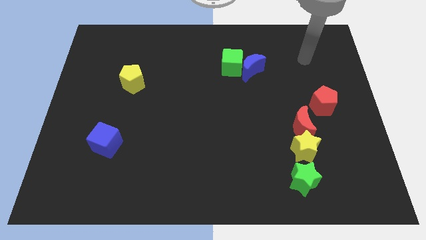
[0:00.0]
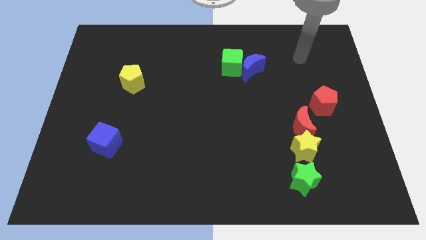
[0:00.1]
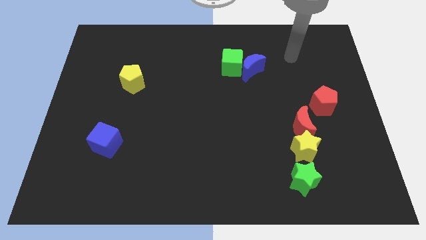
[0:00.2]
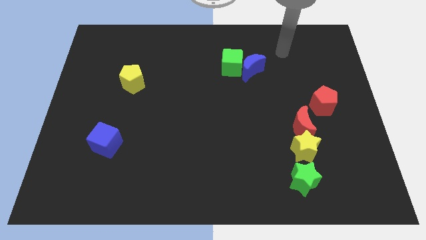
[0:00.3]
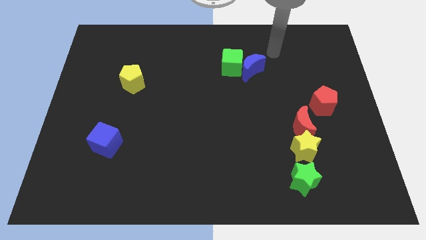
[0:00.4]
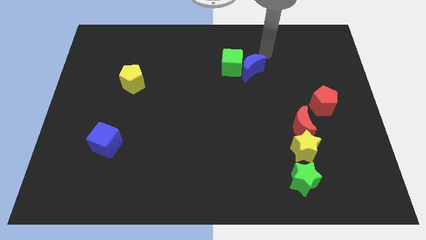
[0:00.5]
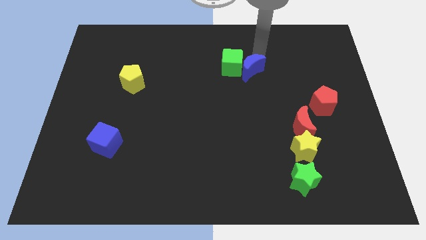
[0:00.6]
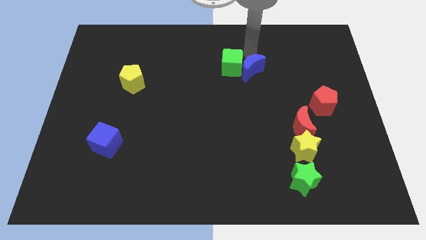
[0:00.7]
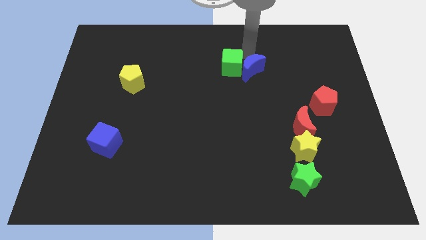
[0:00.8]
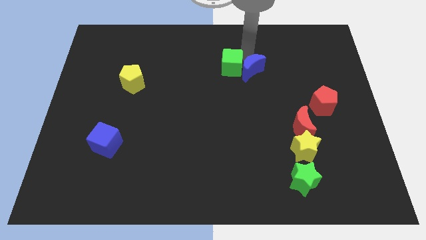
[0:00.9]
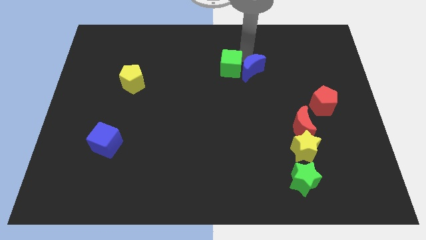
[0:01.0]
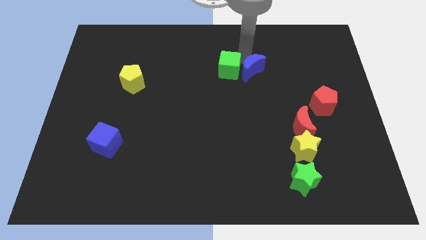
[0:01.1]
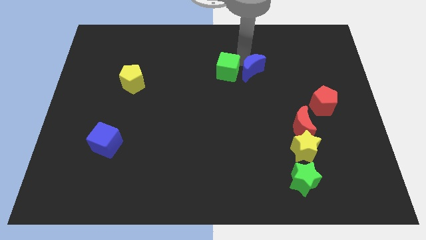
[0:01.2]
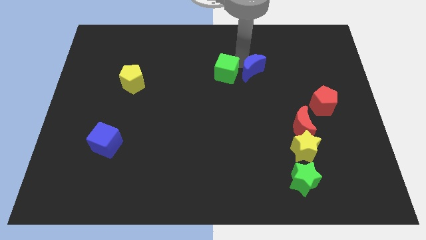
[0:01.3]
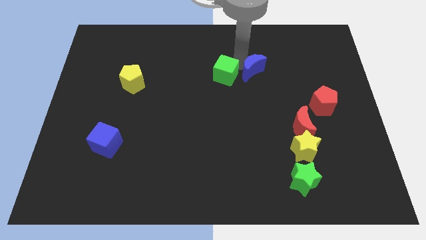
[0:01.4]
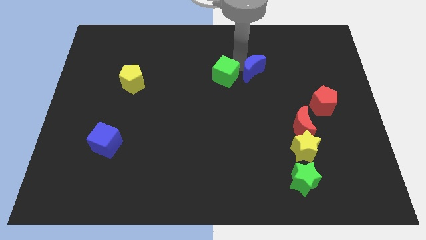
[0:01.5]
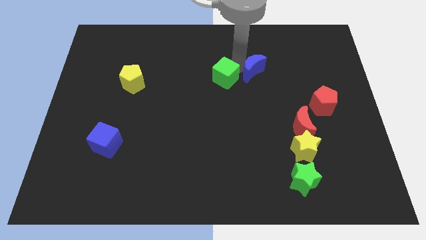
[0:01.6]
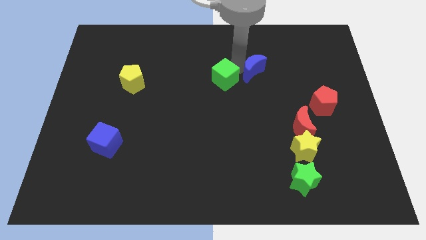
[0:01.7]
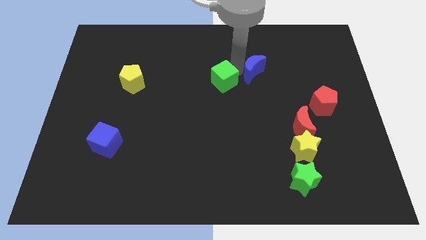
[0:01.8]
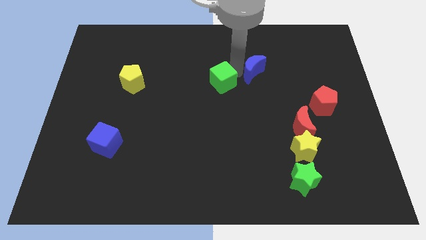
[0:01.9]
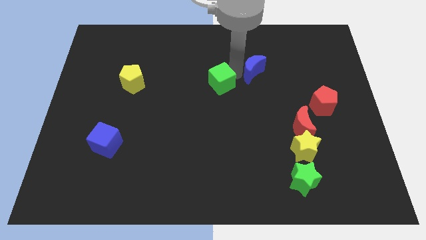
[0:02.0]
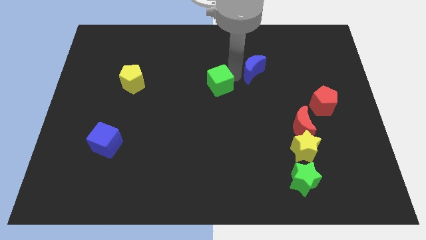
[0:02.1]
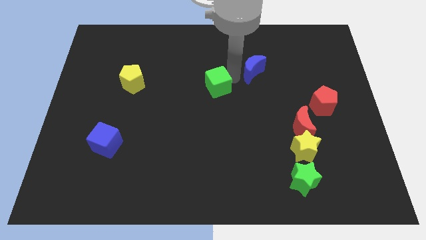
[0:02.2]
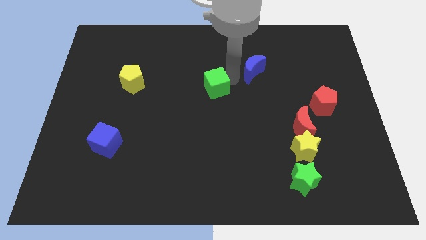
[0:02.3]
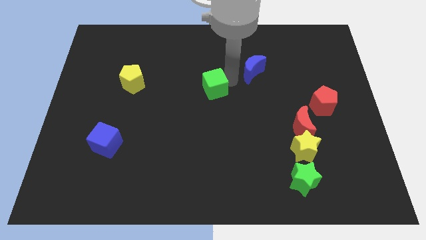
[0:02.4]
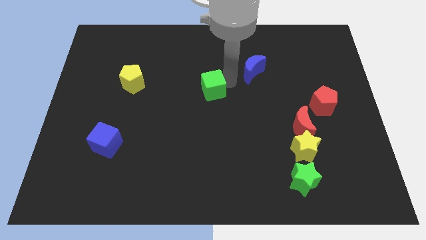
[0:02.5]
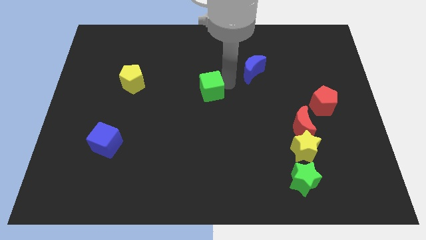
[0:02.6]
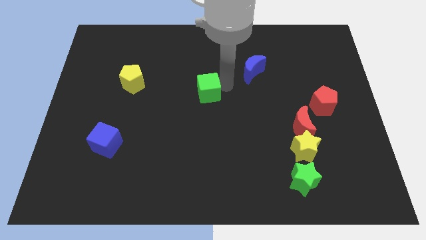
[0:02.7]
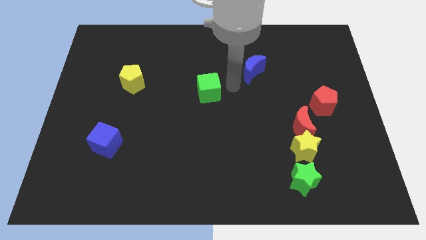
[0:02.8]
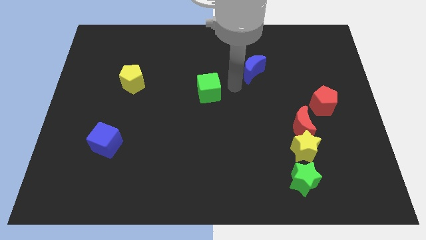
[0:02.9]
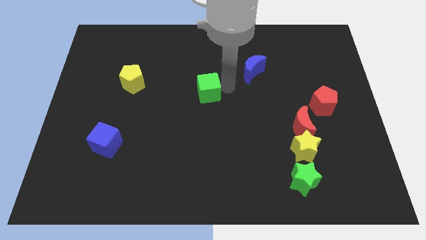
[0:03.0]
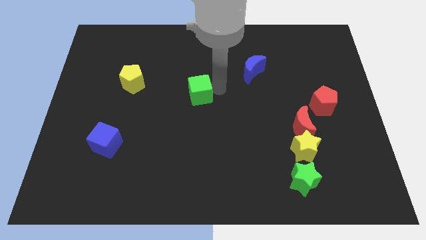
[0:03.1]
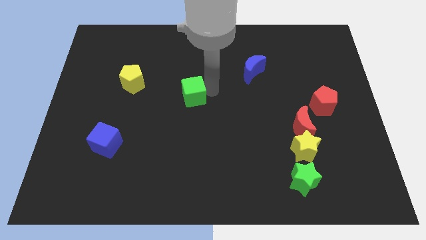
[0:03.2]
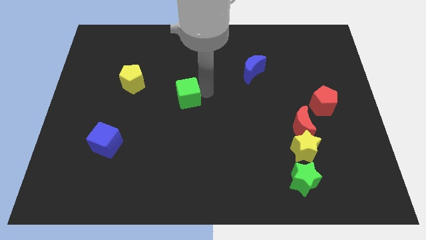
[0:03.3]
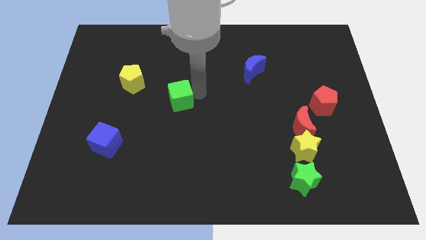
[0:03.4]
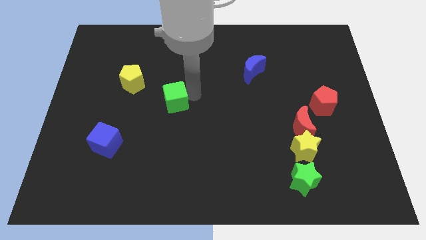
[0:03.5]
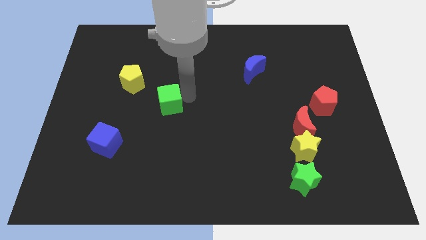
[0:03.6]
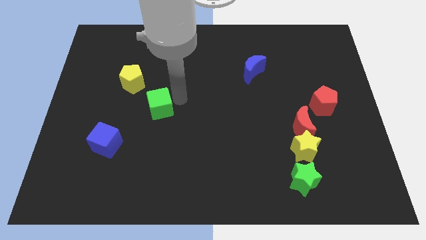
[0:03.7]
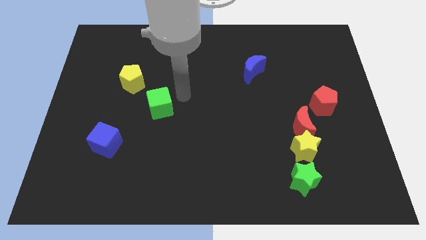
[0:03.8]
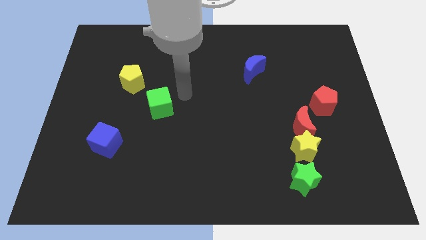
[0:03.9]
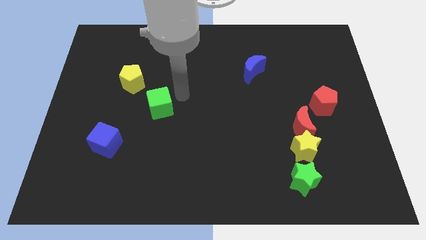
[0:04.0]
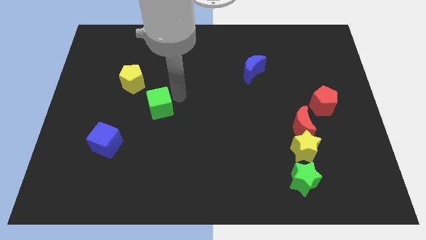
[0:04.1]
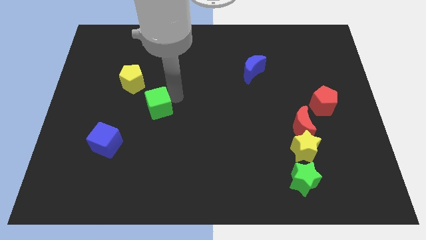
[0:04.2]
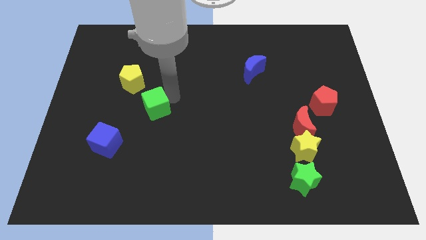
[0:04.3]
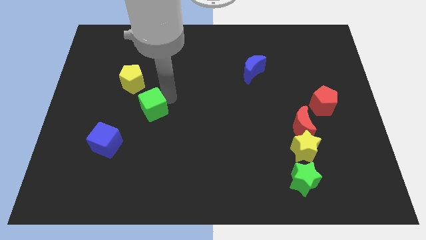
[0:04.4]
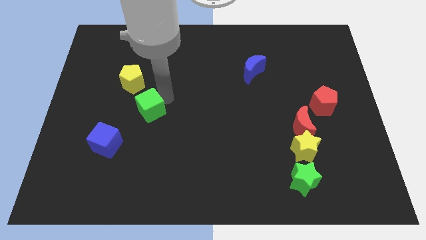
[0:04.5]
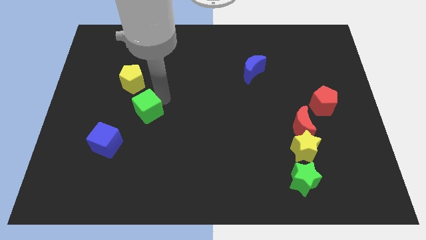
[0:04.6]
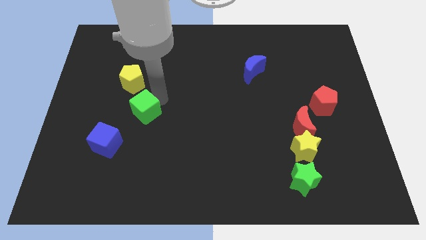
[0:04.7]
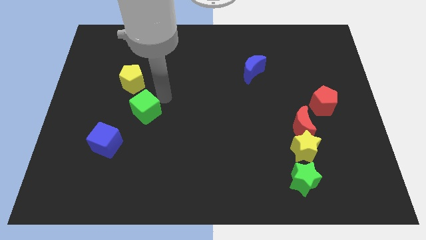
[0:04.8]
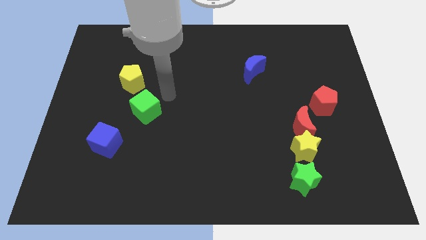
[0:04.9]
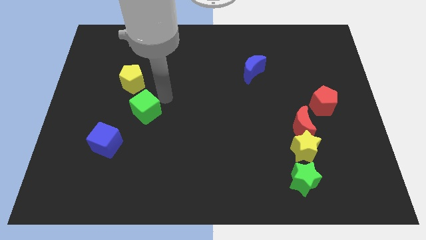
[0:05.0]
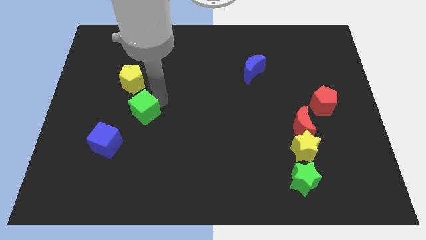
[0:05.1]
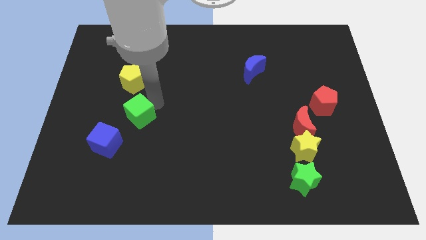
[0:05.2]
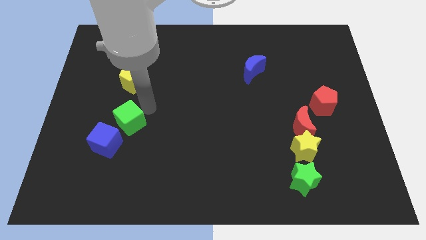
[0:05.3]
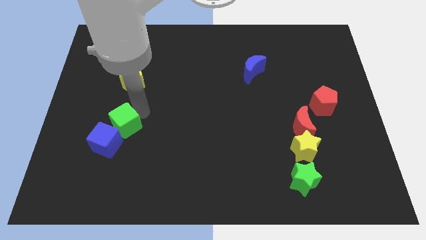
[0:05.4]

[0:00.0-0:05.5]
push the green cube to the blue cube

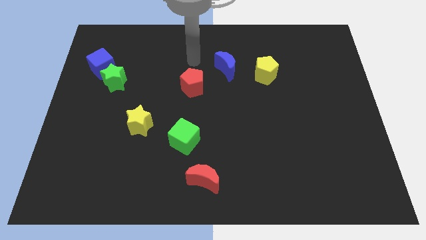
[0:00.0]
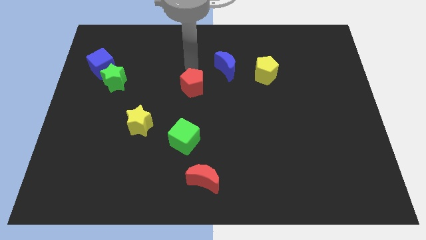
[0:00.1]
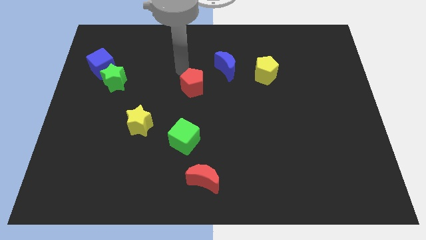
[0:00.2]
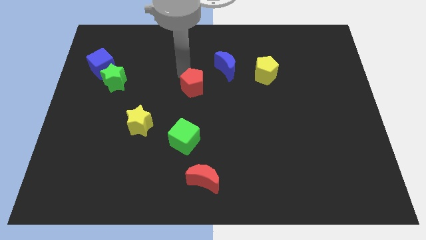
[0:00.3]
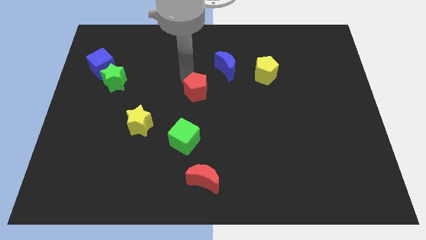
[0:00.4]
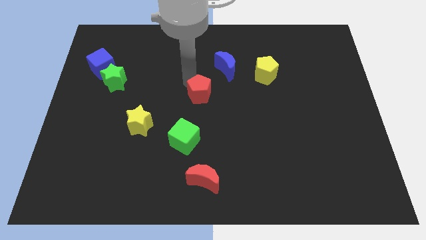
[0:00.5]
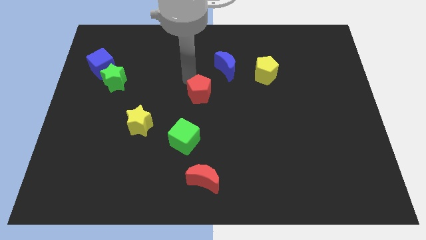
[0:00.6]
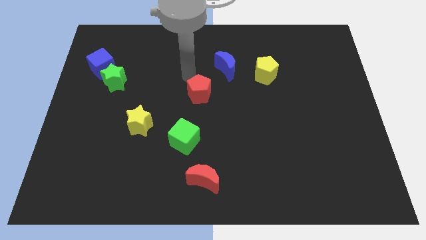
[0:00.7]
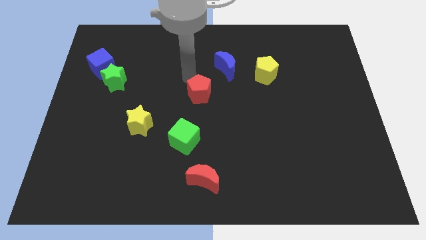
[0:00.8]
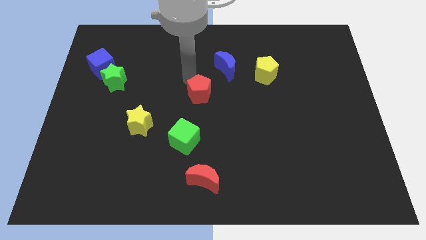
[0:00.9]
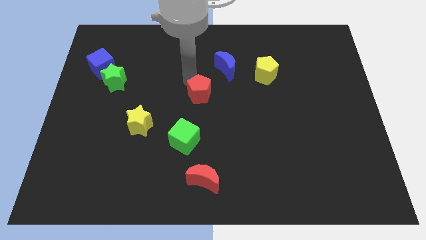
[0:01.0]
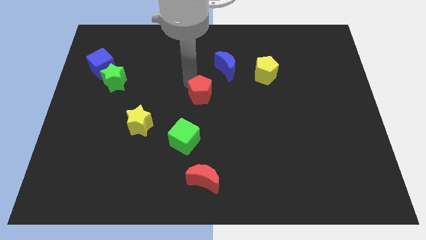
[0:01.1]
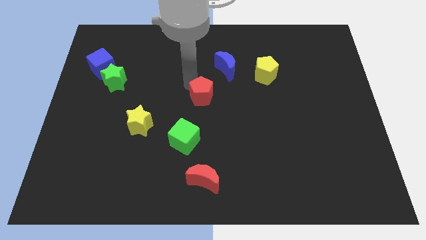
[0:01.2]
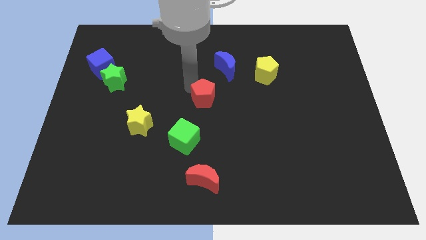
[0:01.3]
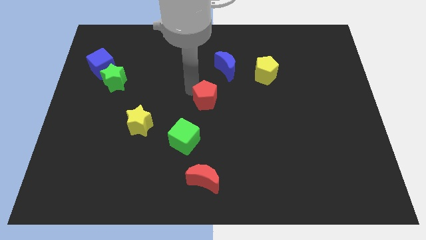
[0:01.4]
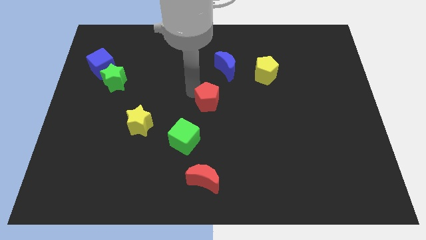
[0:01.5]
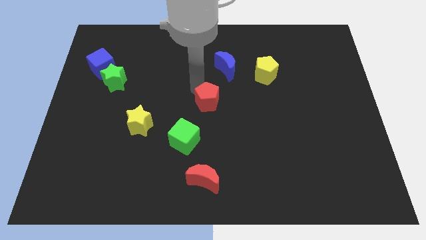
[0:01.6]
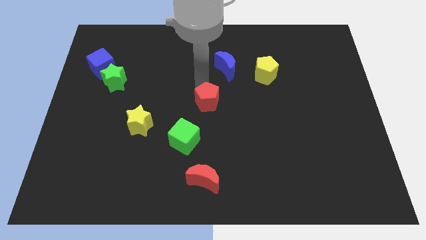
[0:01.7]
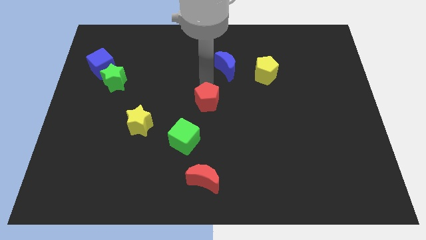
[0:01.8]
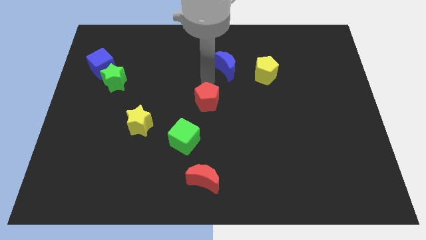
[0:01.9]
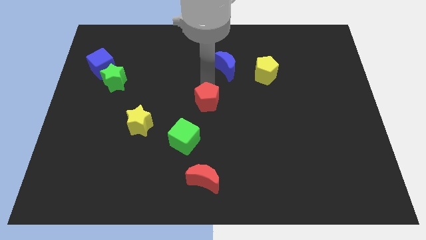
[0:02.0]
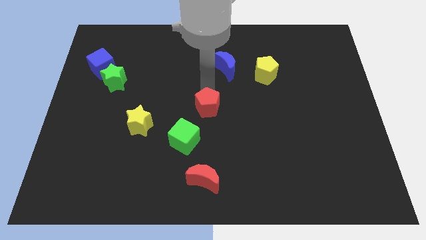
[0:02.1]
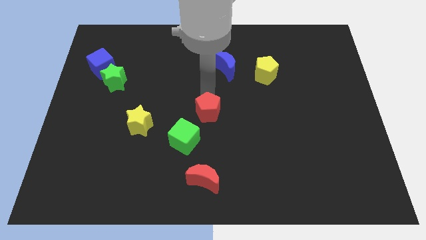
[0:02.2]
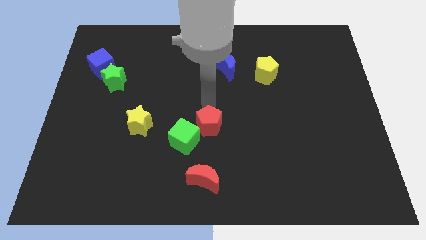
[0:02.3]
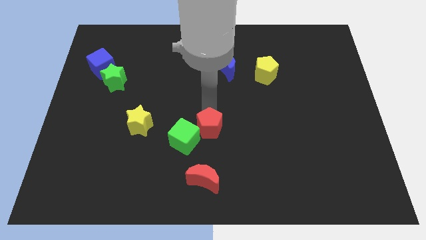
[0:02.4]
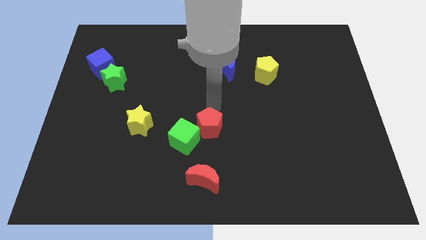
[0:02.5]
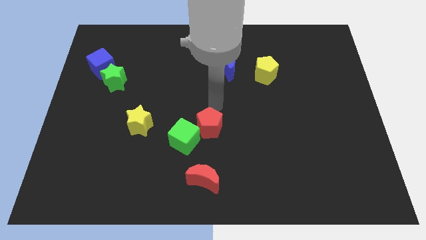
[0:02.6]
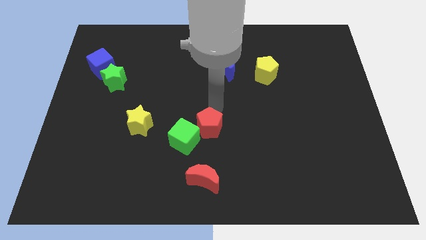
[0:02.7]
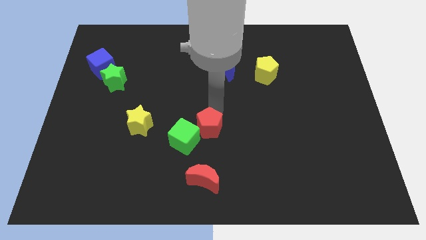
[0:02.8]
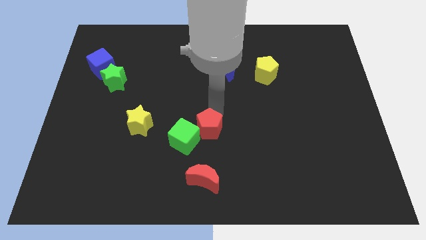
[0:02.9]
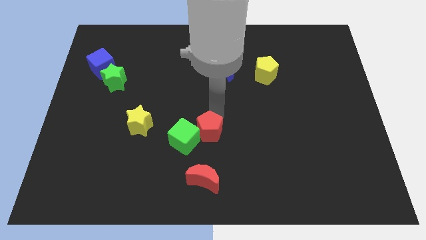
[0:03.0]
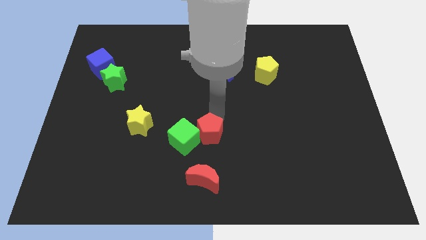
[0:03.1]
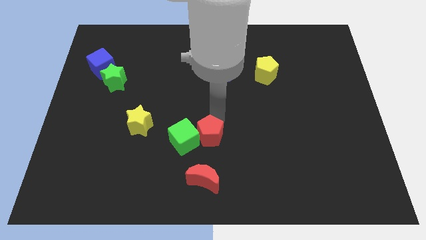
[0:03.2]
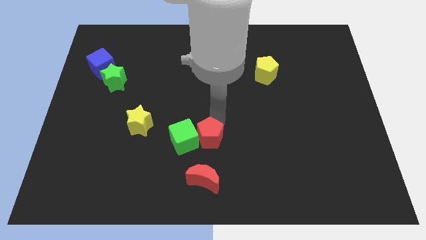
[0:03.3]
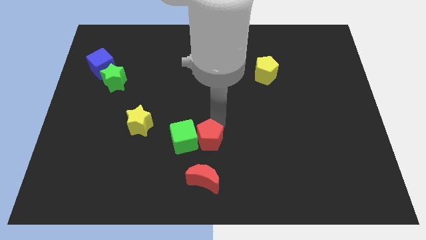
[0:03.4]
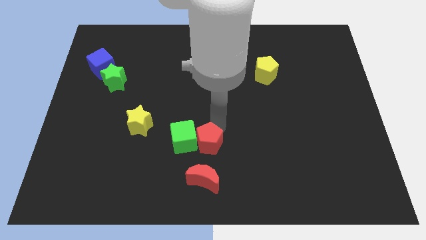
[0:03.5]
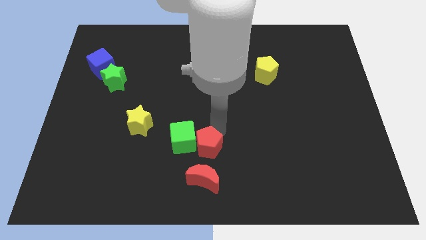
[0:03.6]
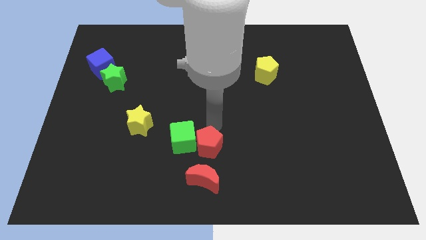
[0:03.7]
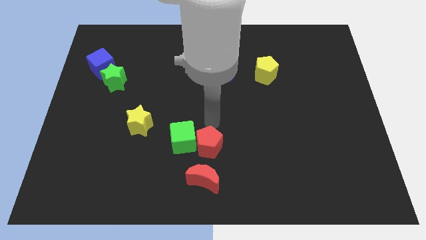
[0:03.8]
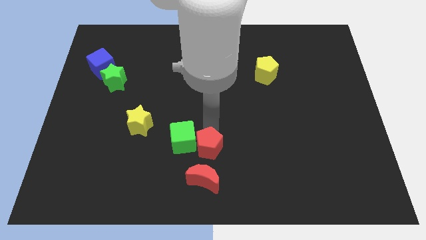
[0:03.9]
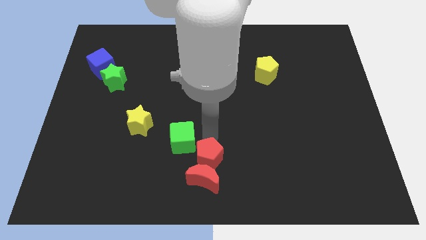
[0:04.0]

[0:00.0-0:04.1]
move the red pentagon close to the red moon
